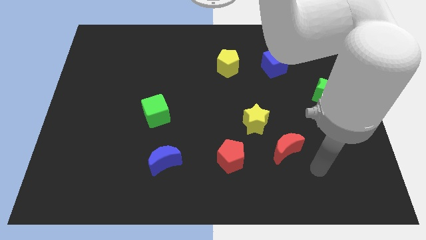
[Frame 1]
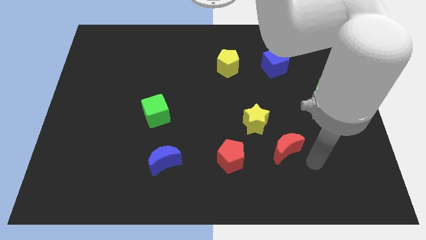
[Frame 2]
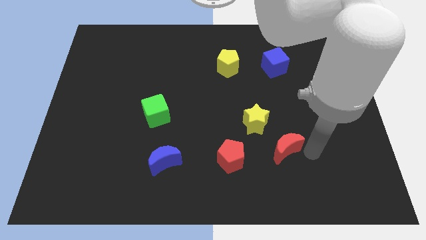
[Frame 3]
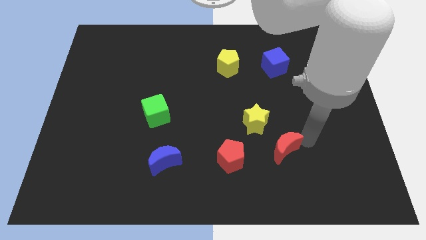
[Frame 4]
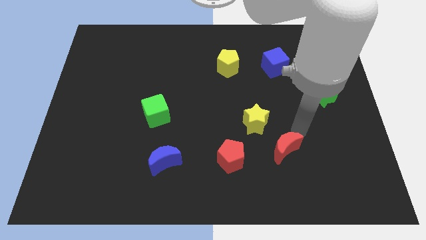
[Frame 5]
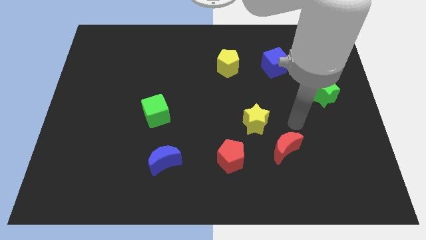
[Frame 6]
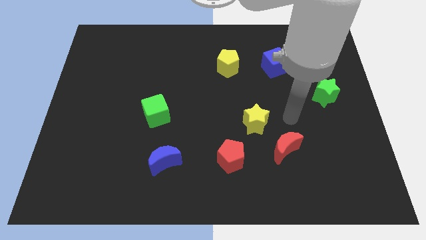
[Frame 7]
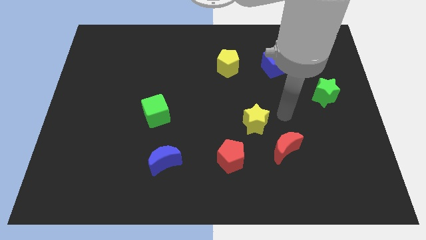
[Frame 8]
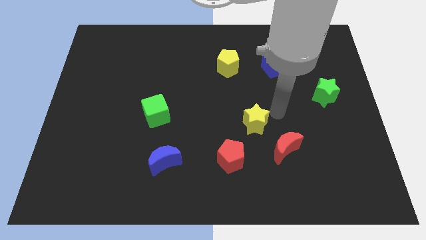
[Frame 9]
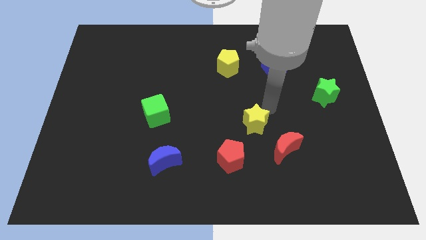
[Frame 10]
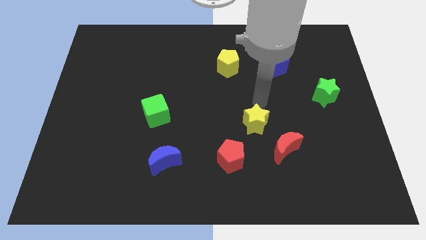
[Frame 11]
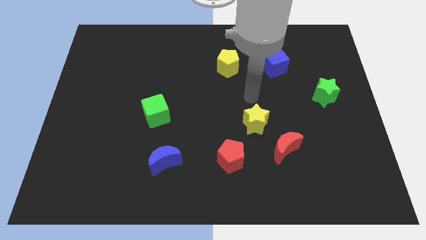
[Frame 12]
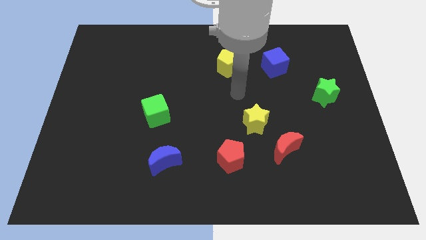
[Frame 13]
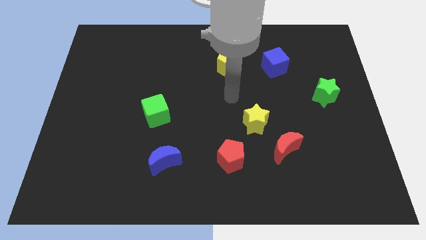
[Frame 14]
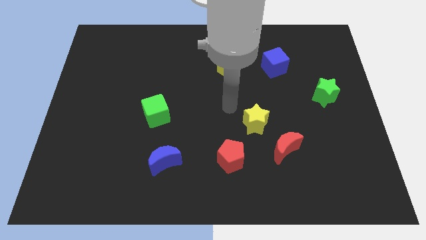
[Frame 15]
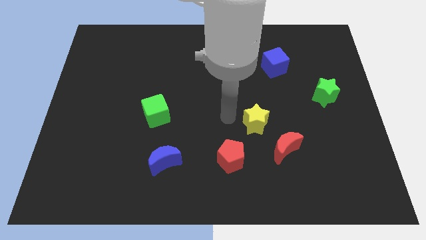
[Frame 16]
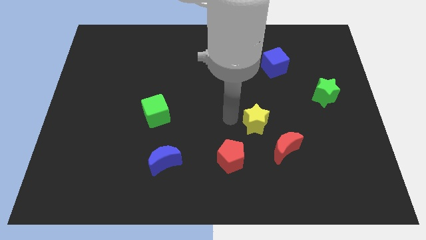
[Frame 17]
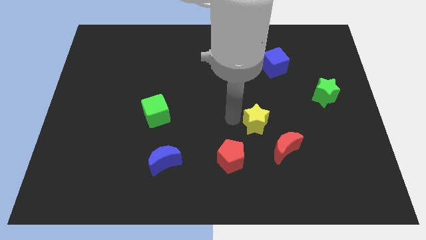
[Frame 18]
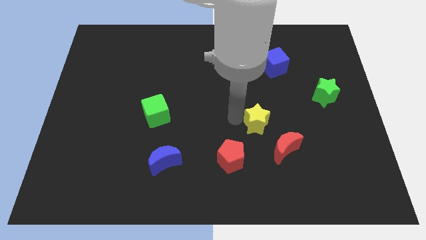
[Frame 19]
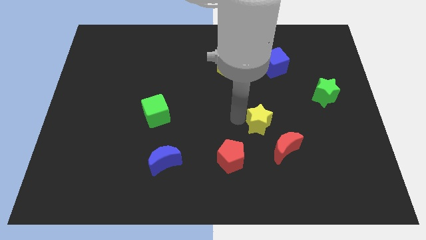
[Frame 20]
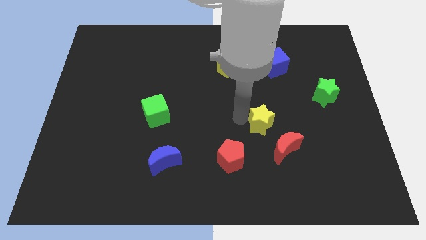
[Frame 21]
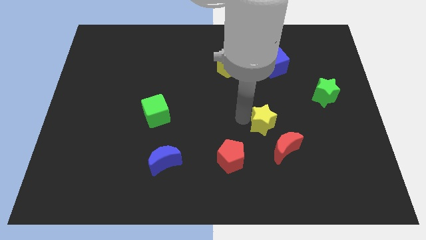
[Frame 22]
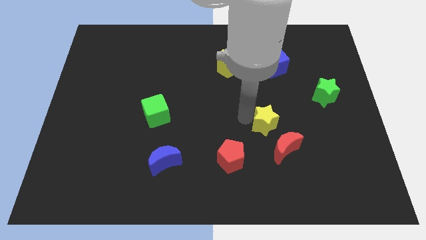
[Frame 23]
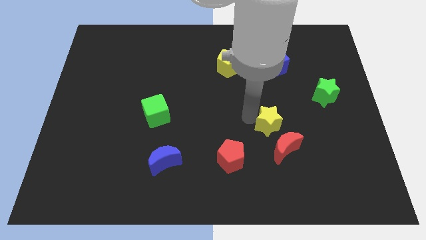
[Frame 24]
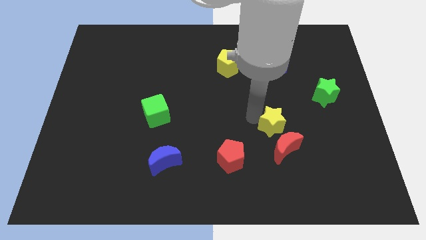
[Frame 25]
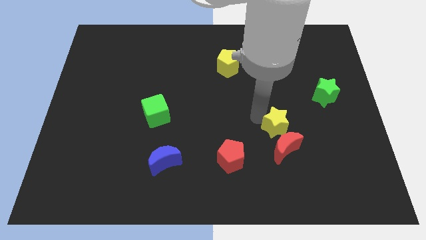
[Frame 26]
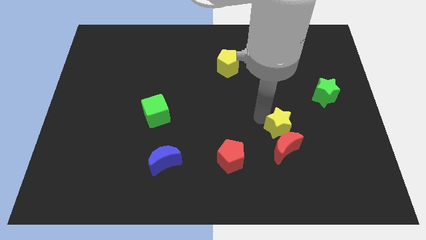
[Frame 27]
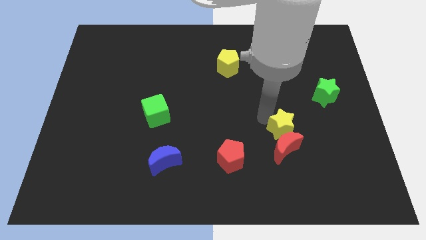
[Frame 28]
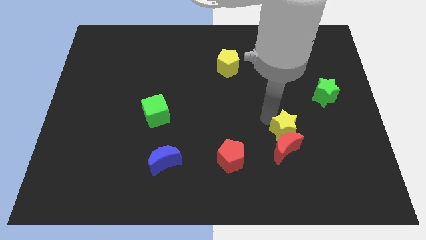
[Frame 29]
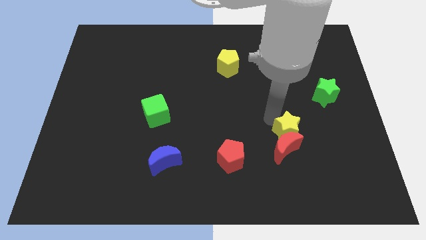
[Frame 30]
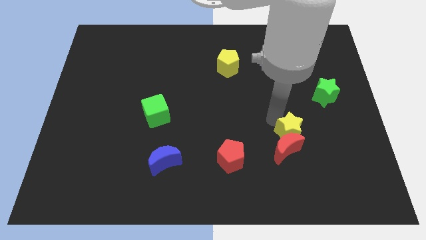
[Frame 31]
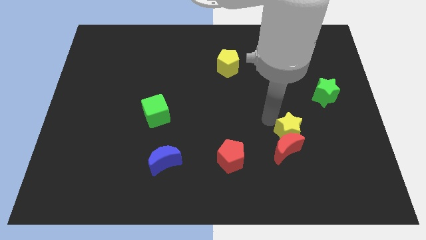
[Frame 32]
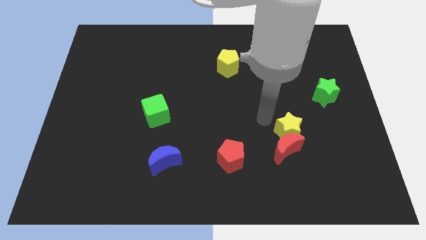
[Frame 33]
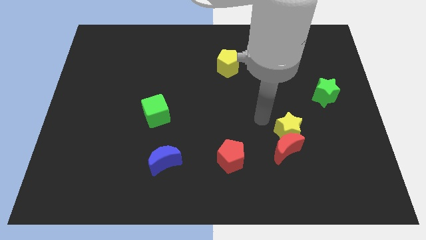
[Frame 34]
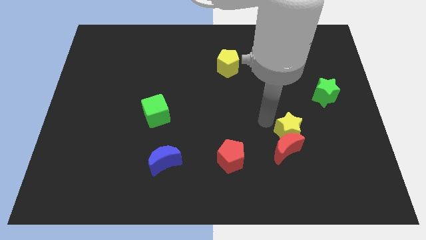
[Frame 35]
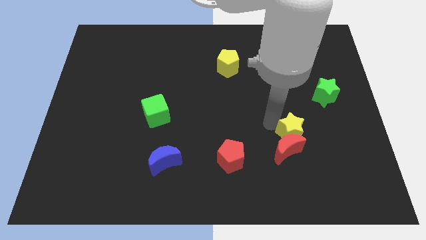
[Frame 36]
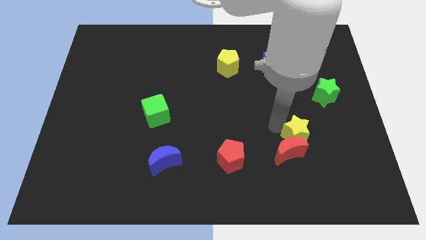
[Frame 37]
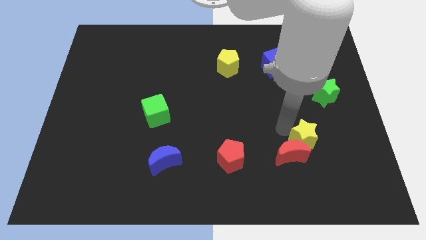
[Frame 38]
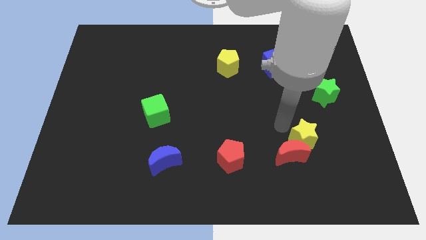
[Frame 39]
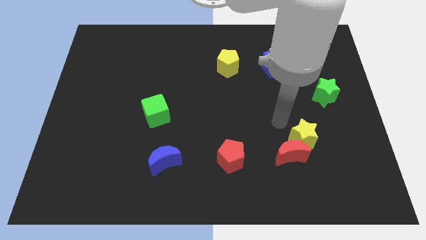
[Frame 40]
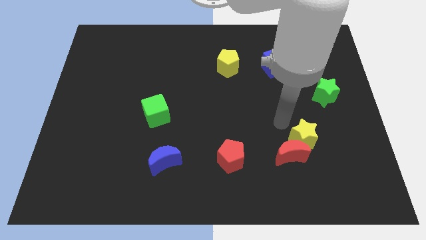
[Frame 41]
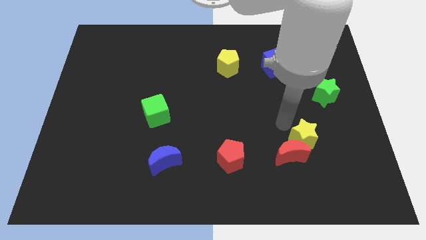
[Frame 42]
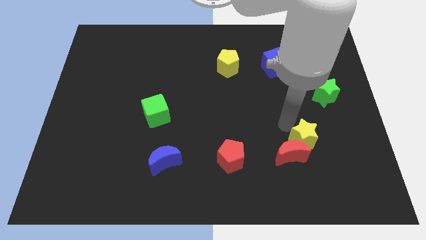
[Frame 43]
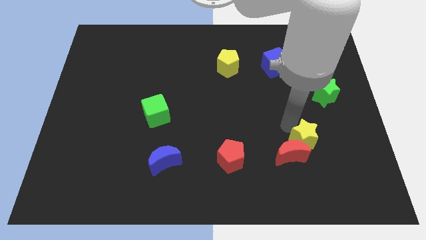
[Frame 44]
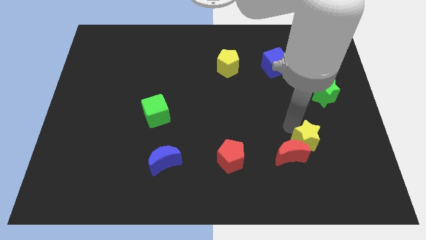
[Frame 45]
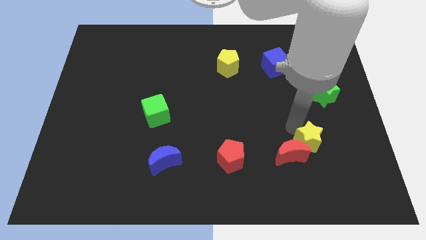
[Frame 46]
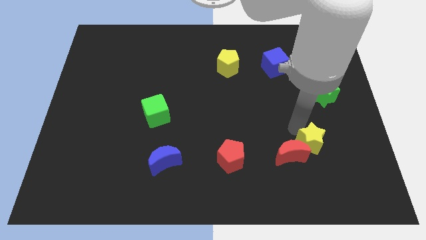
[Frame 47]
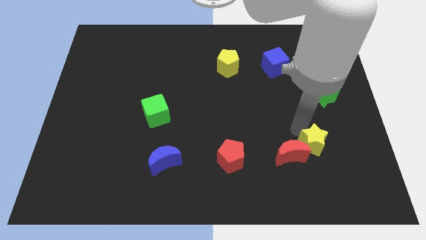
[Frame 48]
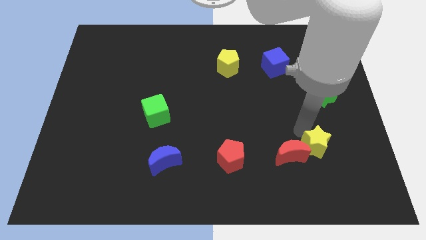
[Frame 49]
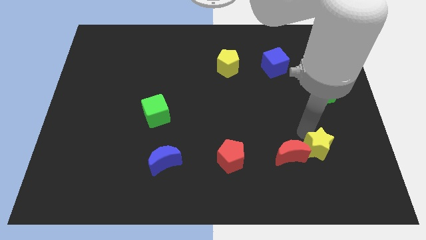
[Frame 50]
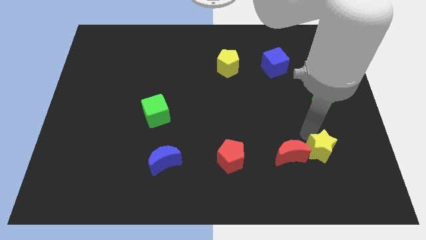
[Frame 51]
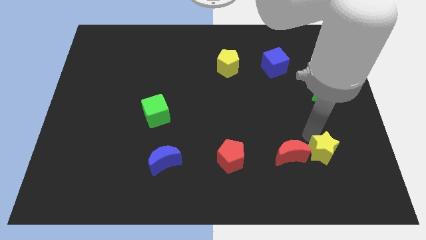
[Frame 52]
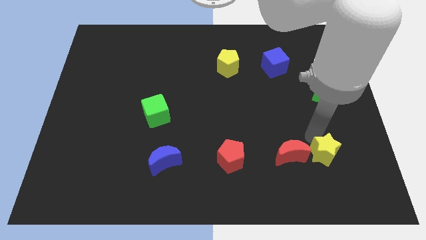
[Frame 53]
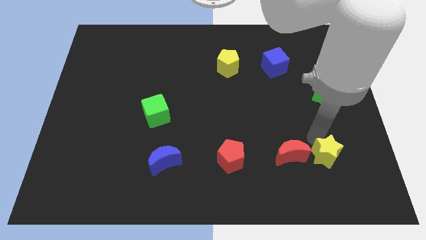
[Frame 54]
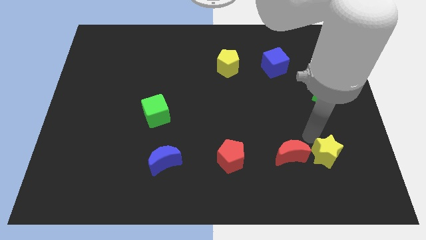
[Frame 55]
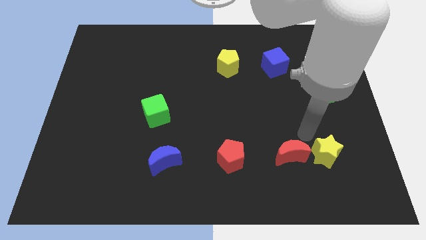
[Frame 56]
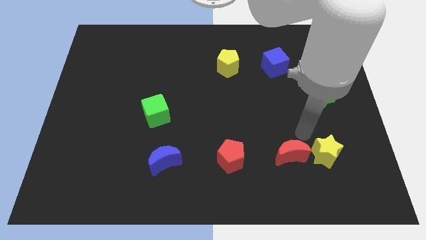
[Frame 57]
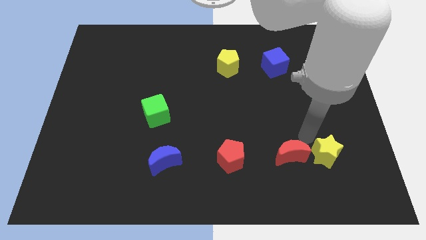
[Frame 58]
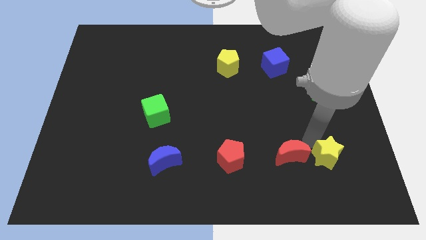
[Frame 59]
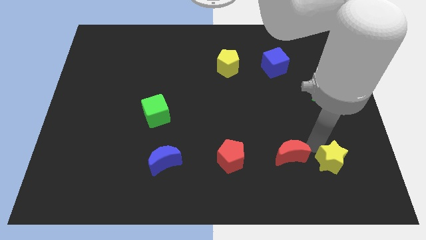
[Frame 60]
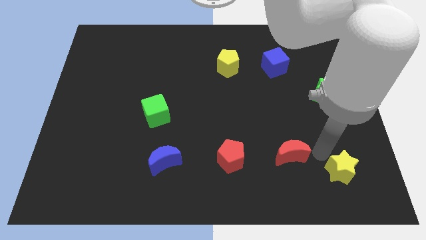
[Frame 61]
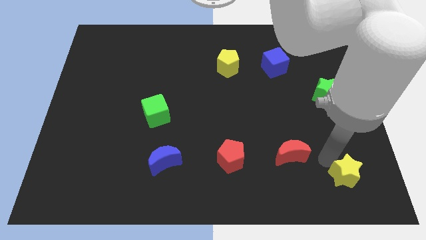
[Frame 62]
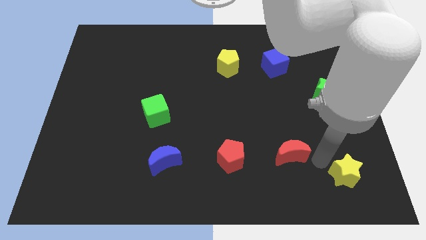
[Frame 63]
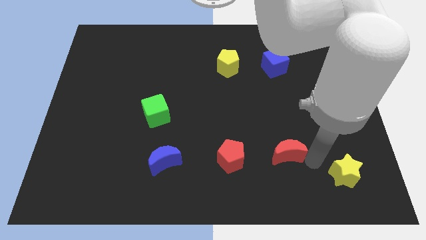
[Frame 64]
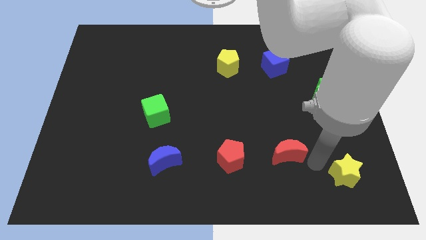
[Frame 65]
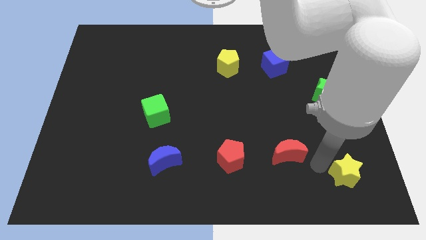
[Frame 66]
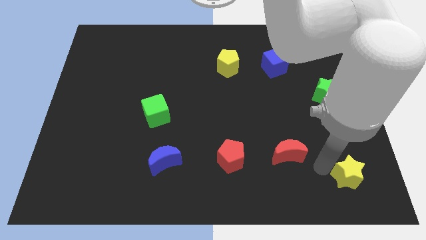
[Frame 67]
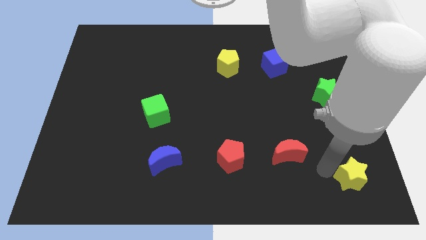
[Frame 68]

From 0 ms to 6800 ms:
put the yellow star to the lower right corner

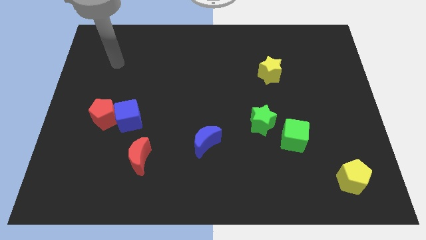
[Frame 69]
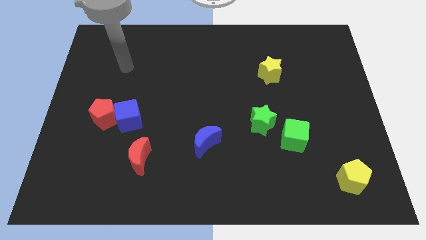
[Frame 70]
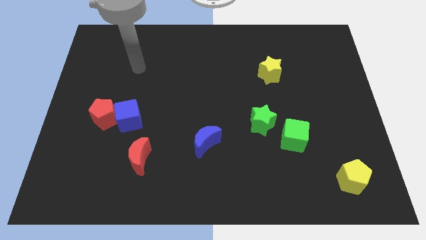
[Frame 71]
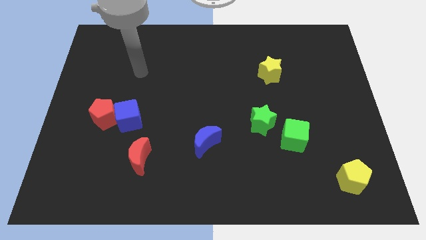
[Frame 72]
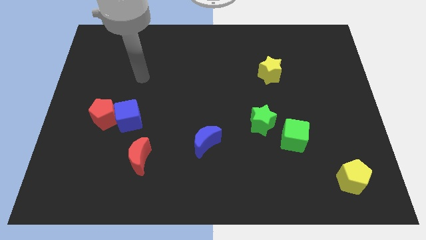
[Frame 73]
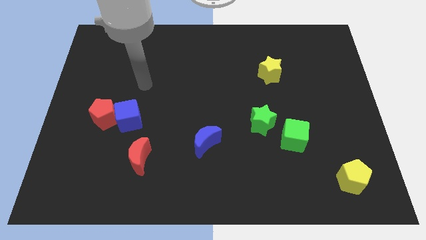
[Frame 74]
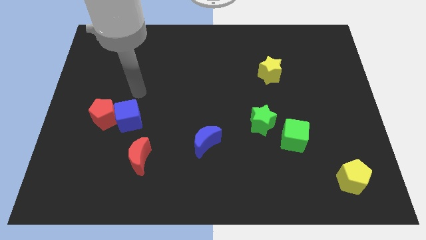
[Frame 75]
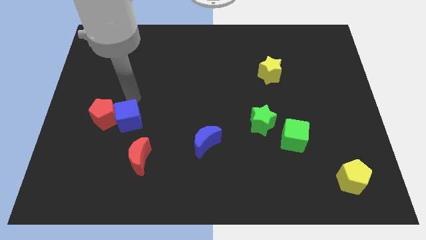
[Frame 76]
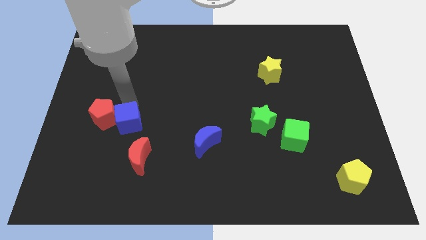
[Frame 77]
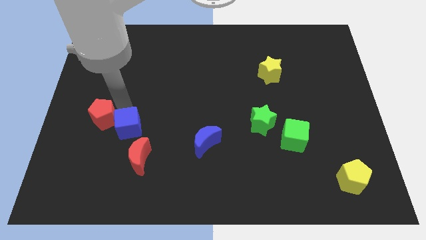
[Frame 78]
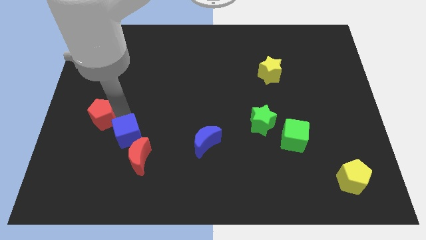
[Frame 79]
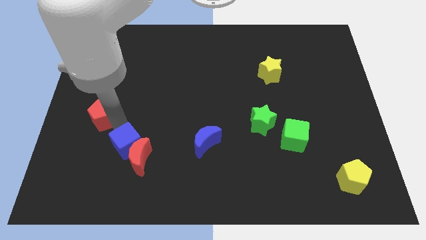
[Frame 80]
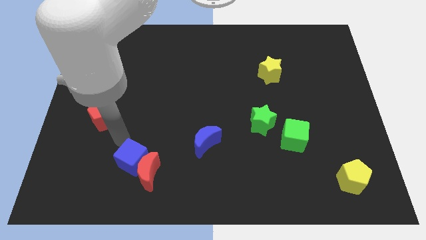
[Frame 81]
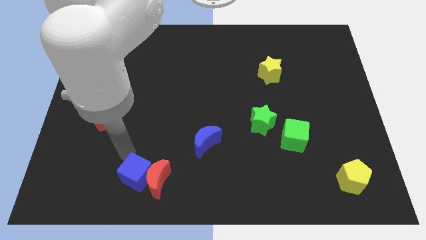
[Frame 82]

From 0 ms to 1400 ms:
move the red moon to the bottom side
